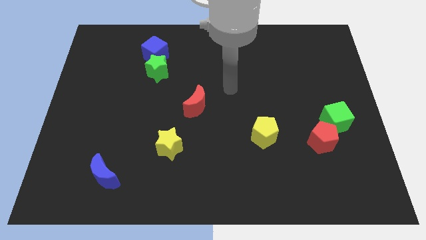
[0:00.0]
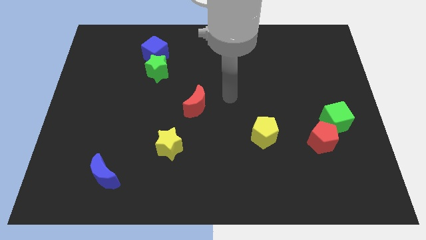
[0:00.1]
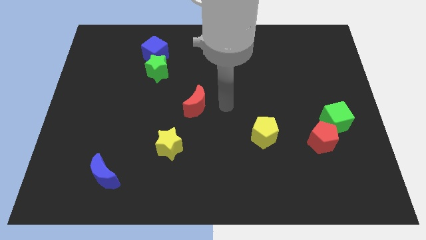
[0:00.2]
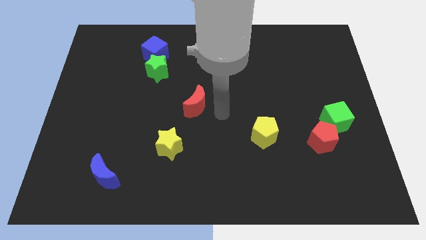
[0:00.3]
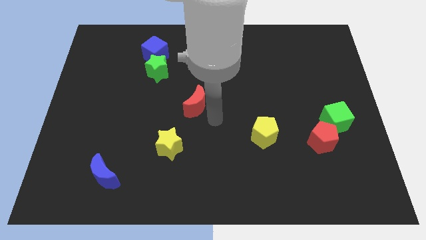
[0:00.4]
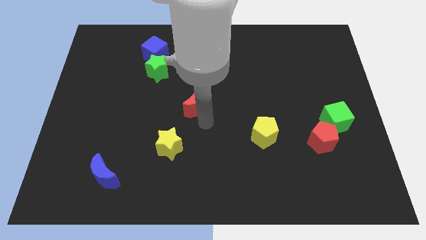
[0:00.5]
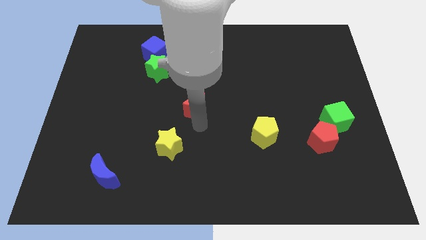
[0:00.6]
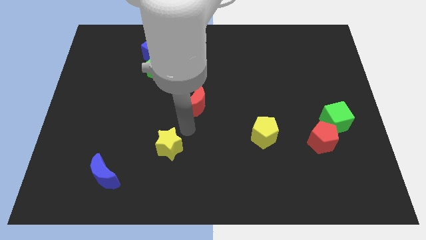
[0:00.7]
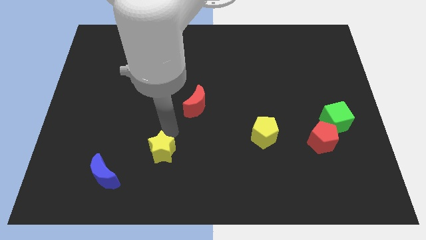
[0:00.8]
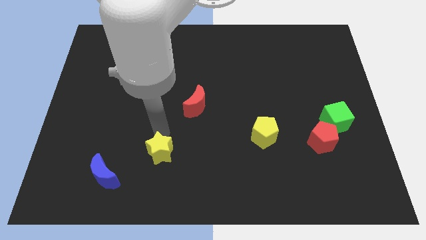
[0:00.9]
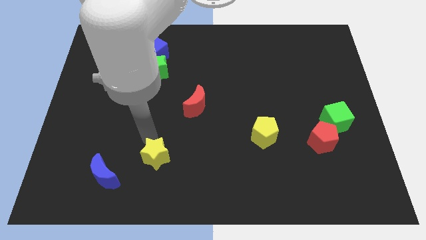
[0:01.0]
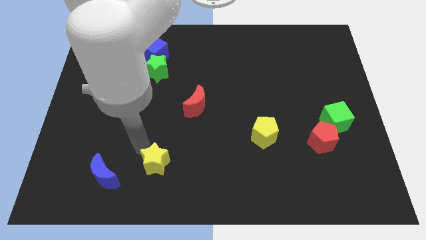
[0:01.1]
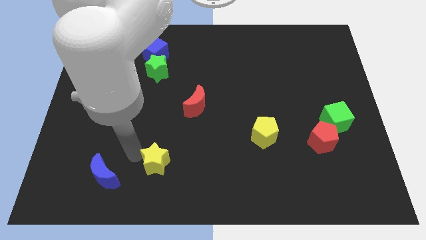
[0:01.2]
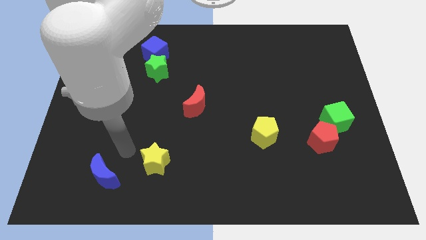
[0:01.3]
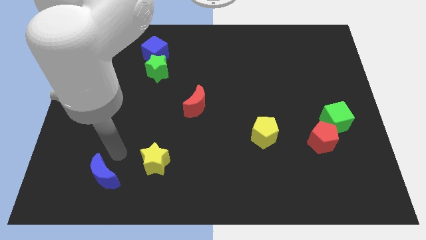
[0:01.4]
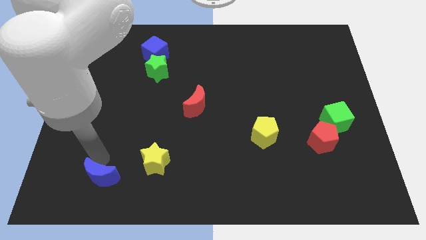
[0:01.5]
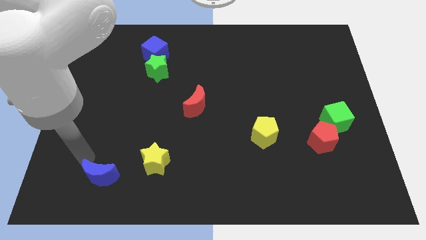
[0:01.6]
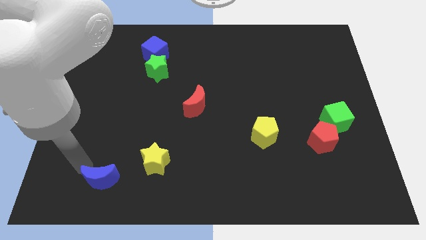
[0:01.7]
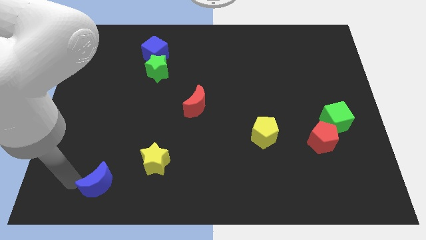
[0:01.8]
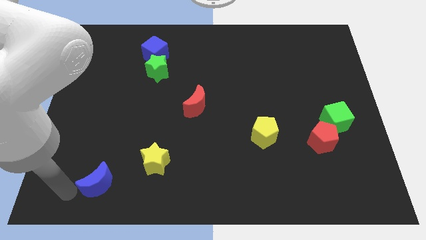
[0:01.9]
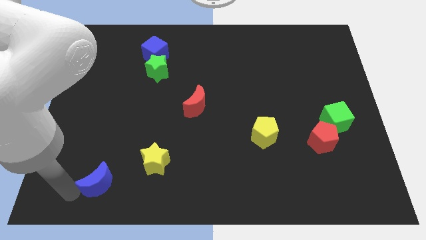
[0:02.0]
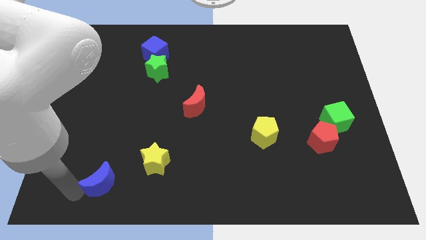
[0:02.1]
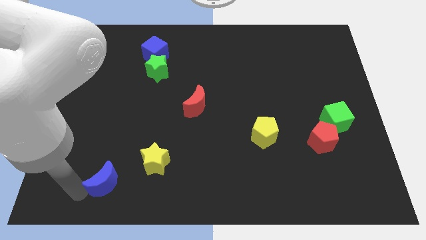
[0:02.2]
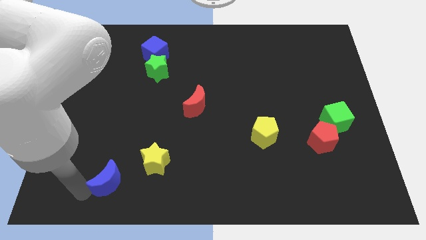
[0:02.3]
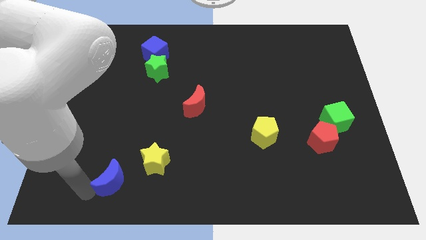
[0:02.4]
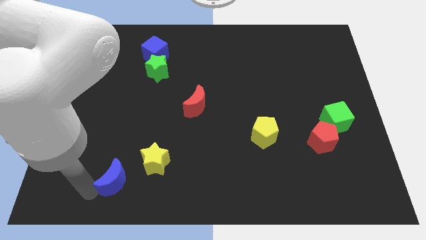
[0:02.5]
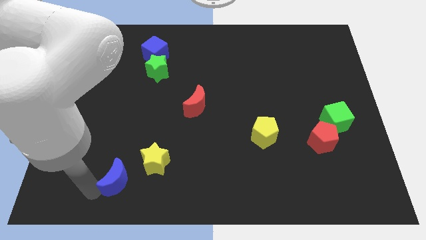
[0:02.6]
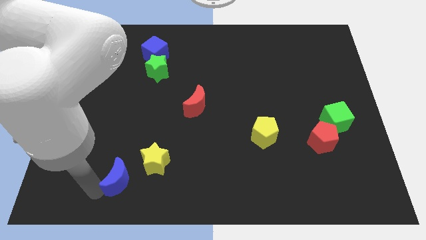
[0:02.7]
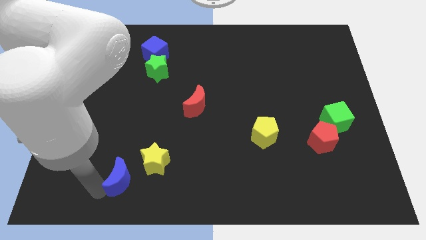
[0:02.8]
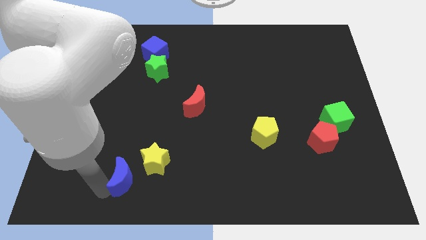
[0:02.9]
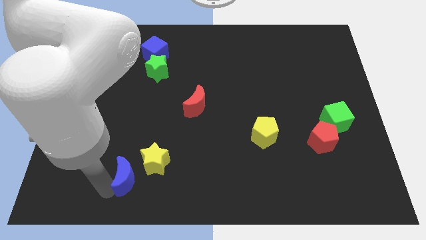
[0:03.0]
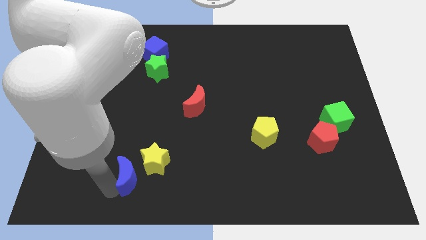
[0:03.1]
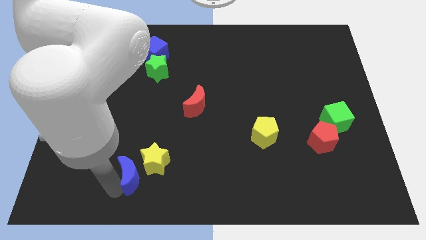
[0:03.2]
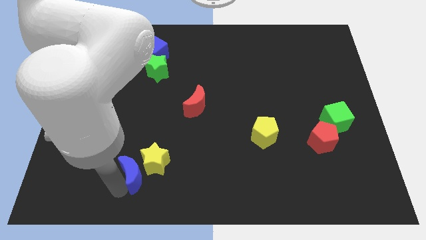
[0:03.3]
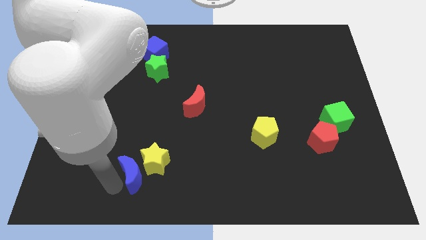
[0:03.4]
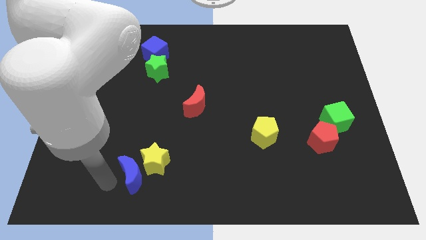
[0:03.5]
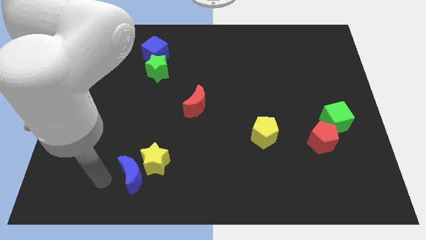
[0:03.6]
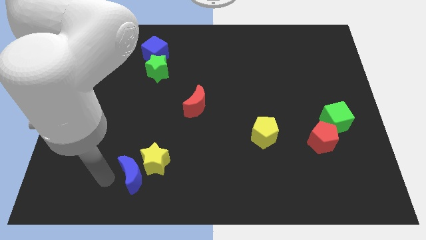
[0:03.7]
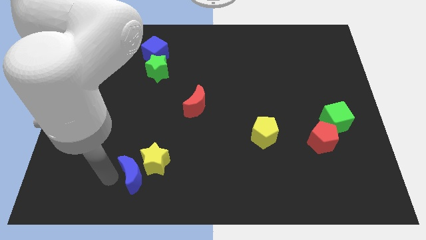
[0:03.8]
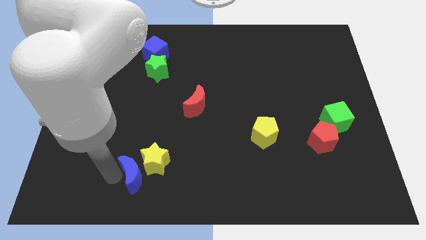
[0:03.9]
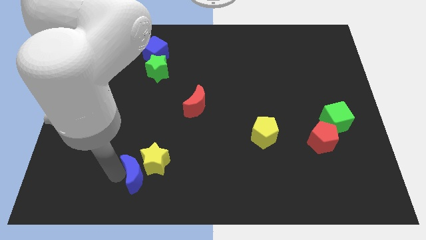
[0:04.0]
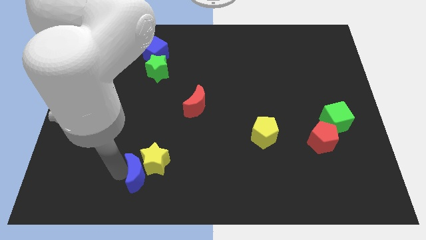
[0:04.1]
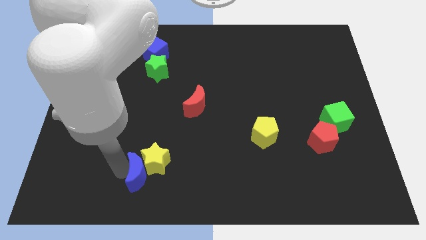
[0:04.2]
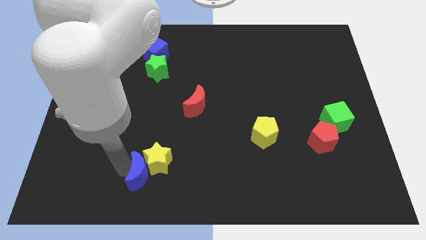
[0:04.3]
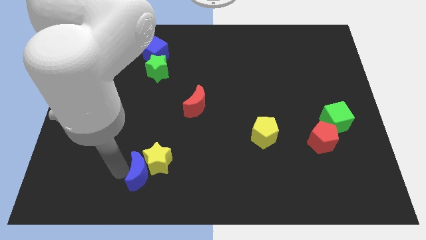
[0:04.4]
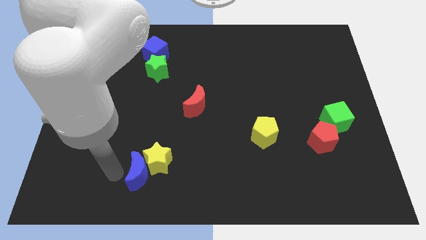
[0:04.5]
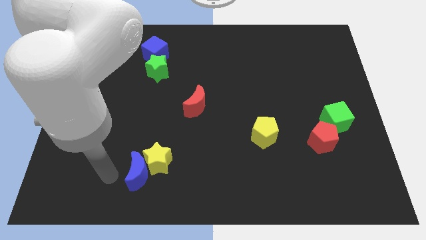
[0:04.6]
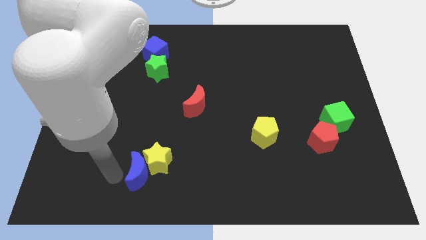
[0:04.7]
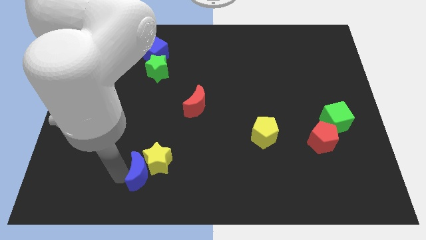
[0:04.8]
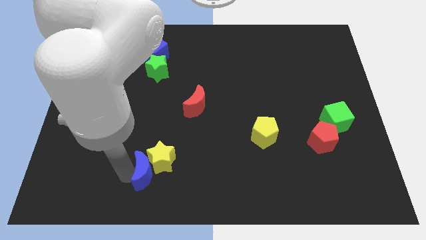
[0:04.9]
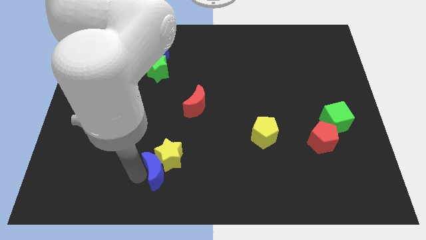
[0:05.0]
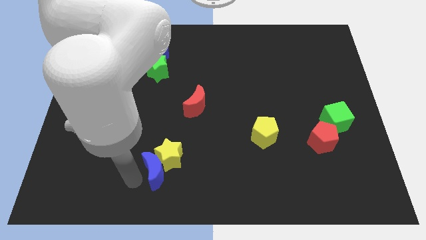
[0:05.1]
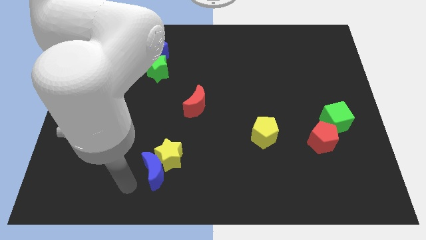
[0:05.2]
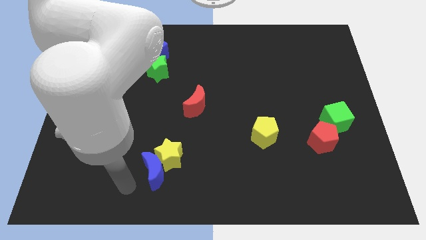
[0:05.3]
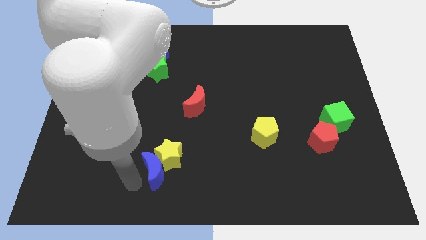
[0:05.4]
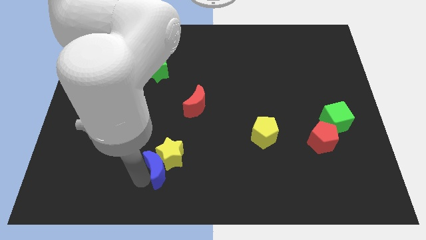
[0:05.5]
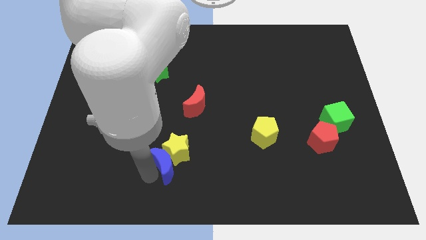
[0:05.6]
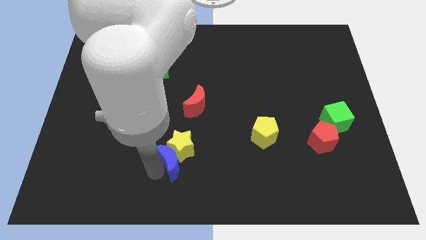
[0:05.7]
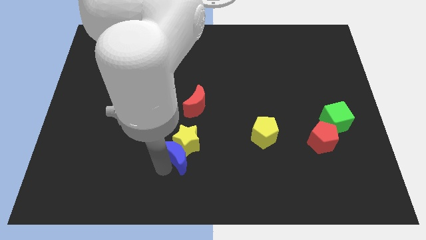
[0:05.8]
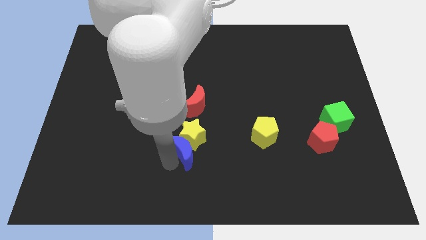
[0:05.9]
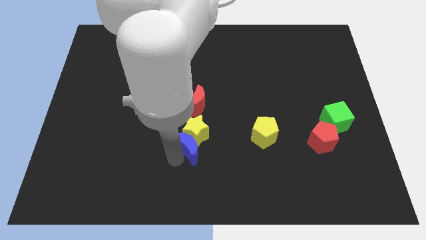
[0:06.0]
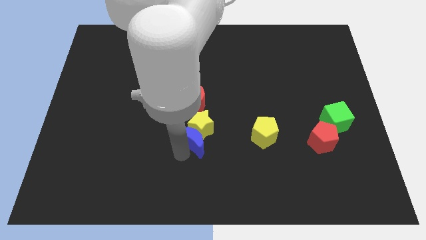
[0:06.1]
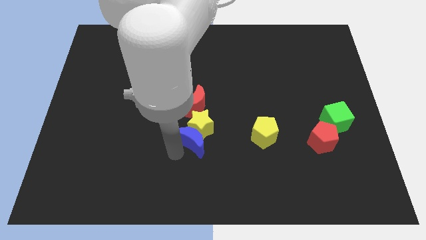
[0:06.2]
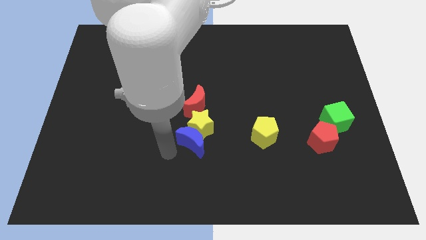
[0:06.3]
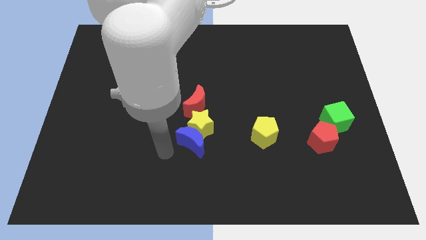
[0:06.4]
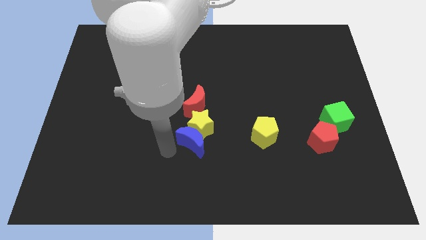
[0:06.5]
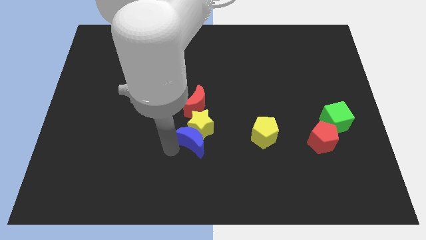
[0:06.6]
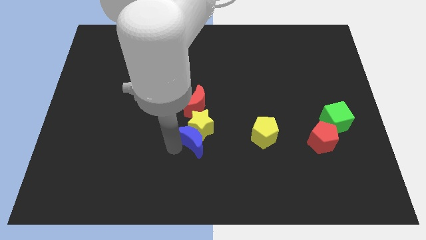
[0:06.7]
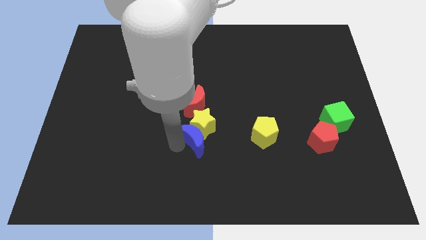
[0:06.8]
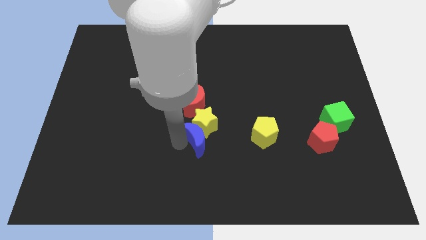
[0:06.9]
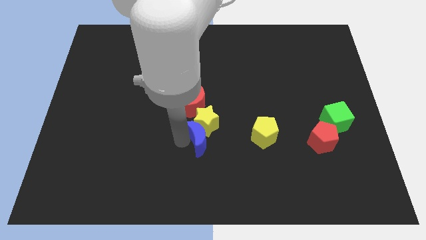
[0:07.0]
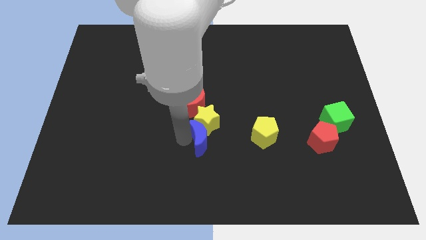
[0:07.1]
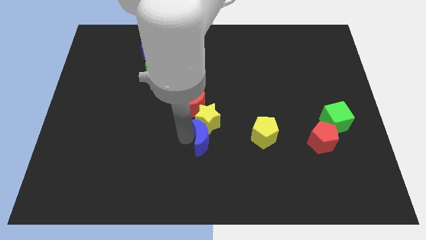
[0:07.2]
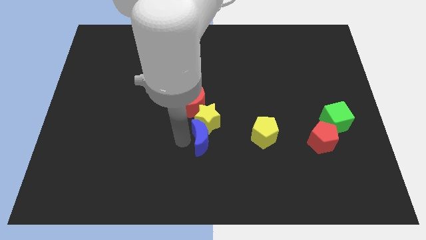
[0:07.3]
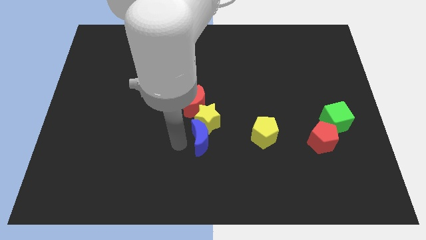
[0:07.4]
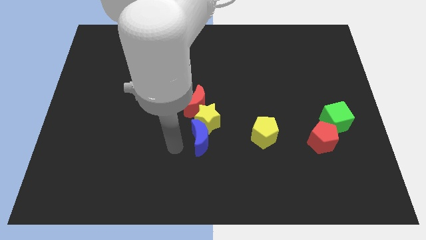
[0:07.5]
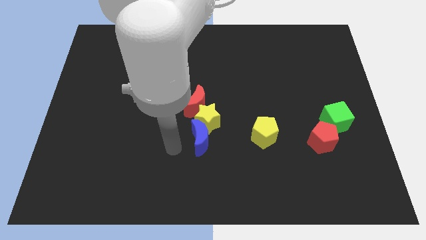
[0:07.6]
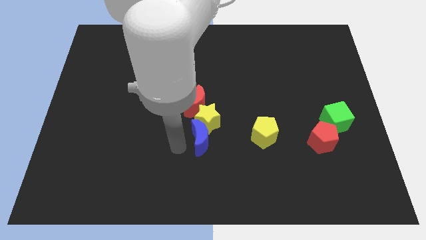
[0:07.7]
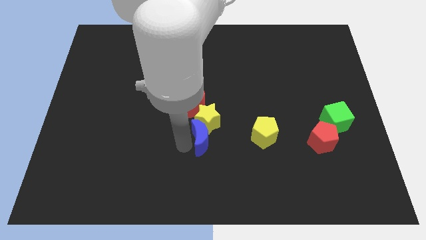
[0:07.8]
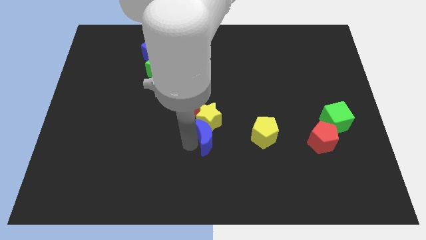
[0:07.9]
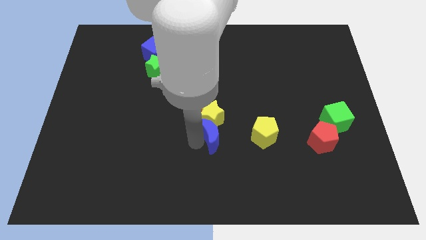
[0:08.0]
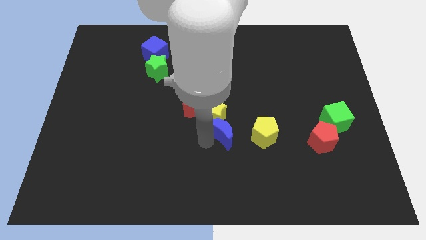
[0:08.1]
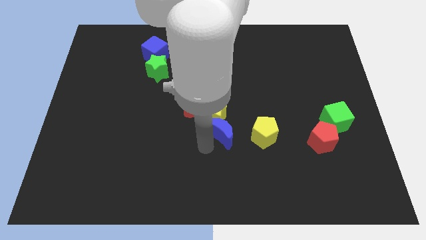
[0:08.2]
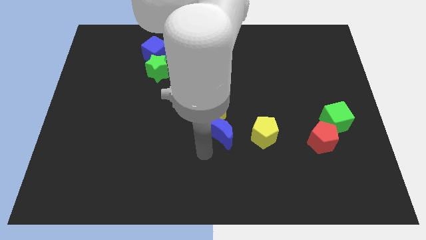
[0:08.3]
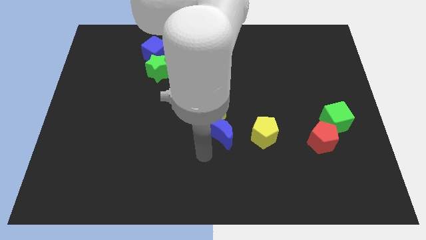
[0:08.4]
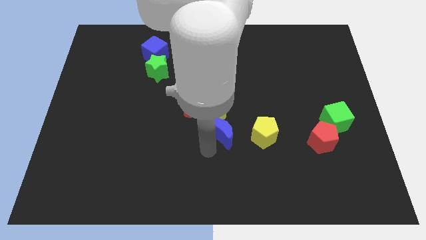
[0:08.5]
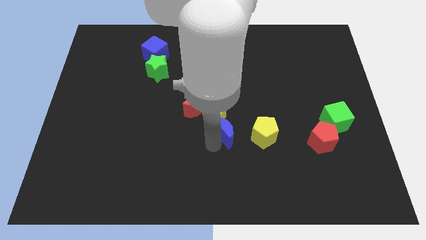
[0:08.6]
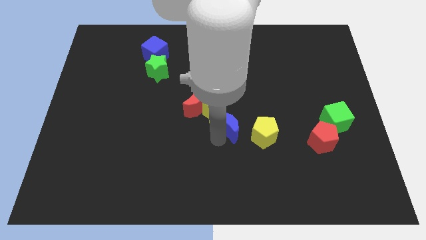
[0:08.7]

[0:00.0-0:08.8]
push the blue moon to the top left of the yellow pentagon
